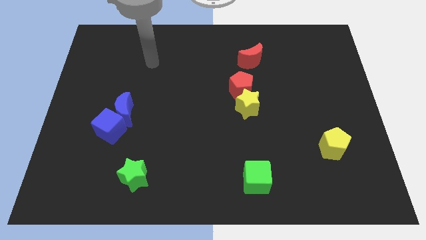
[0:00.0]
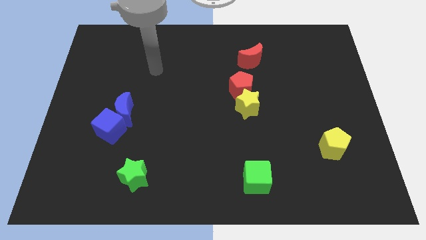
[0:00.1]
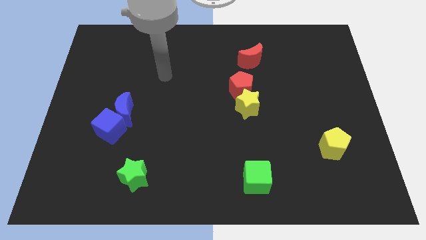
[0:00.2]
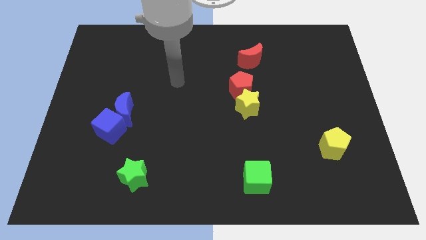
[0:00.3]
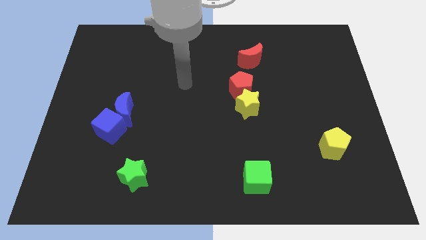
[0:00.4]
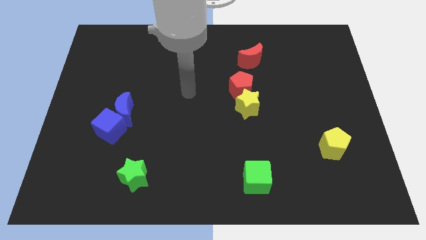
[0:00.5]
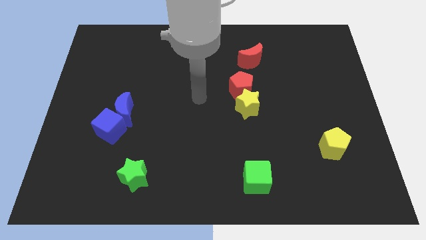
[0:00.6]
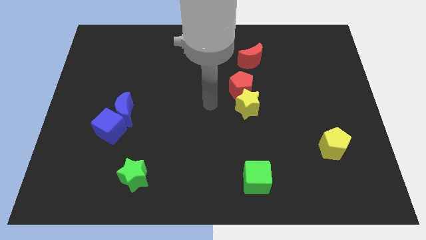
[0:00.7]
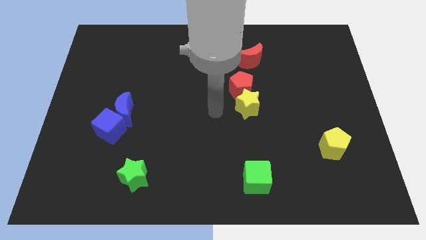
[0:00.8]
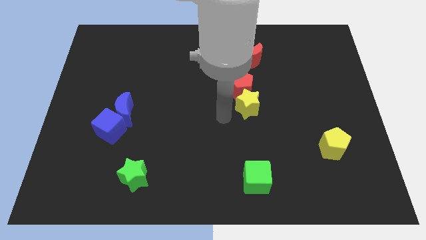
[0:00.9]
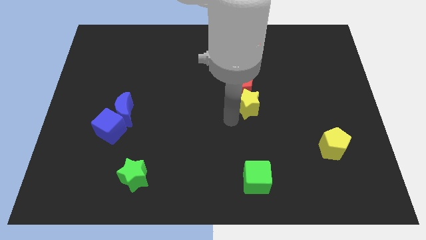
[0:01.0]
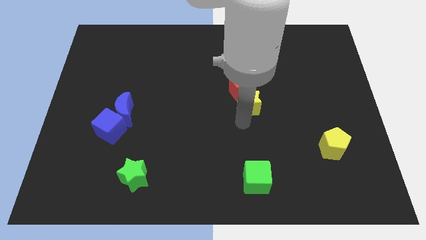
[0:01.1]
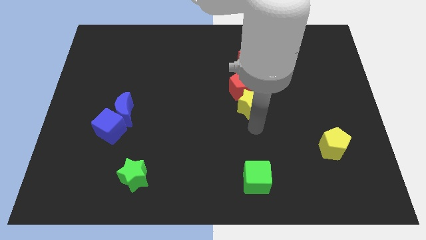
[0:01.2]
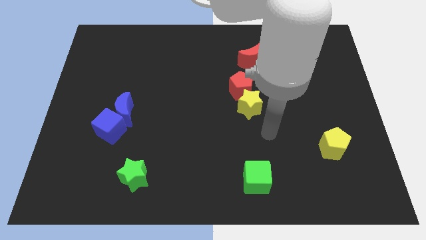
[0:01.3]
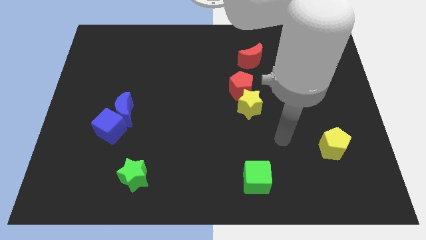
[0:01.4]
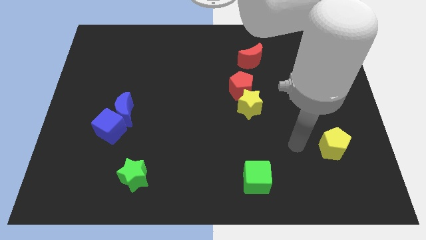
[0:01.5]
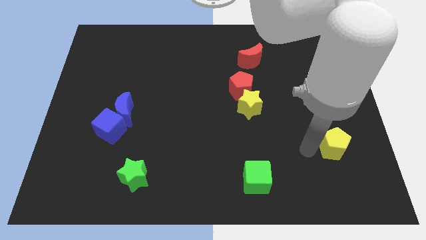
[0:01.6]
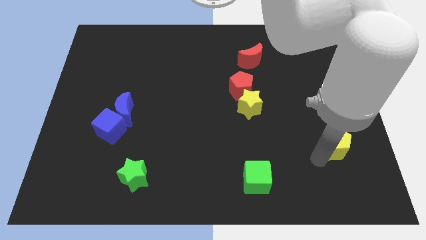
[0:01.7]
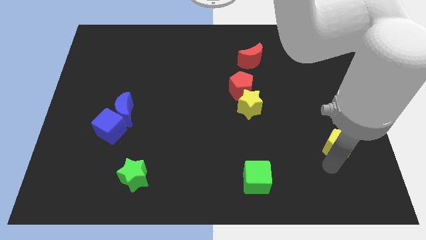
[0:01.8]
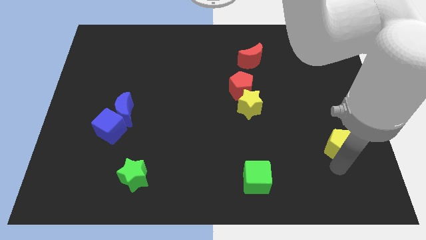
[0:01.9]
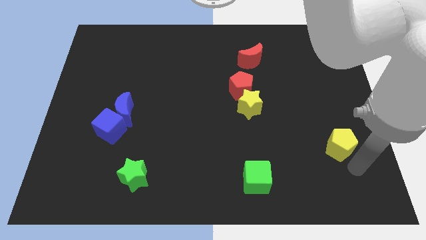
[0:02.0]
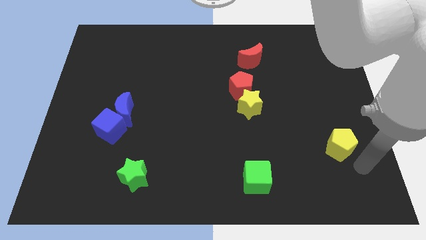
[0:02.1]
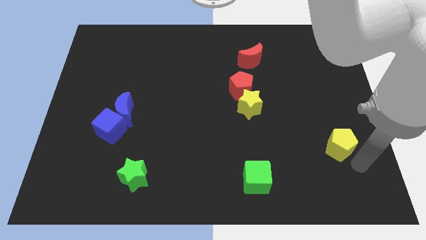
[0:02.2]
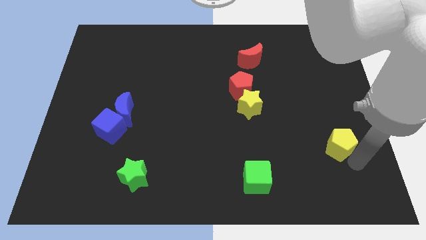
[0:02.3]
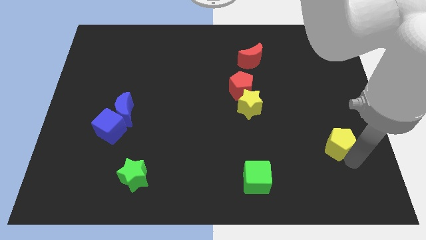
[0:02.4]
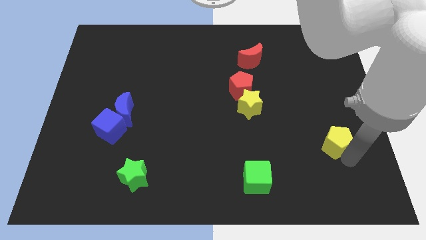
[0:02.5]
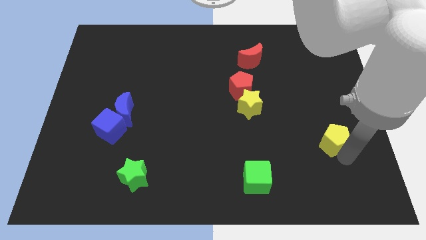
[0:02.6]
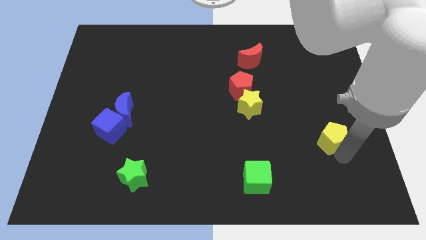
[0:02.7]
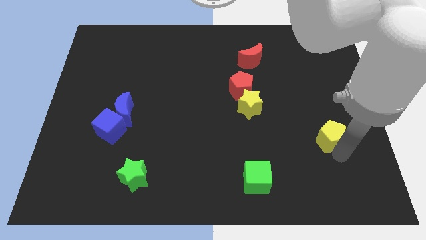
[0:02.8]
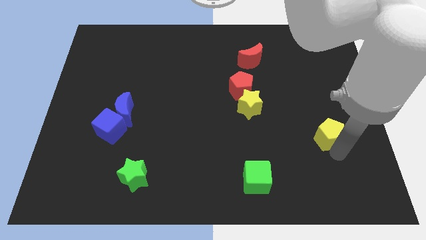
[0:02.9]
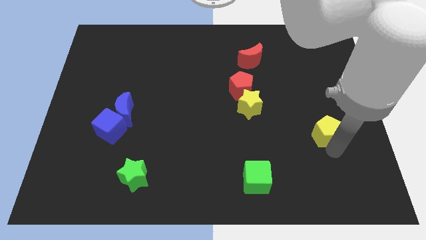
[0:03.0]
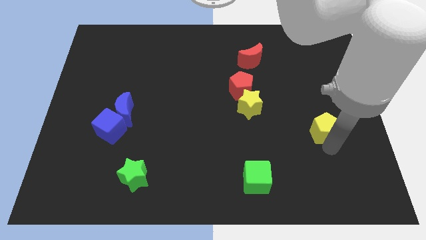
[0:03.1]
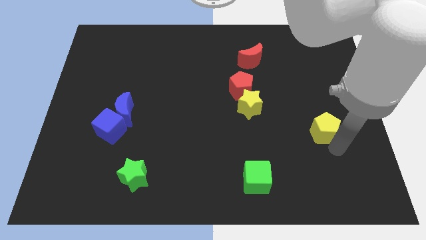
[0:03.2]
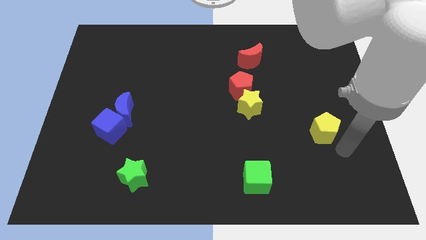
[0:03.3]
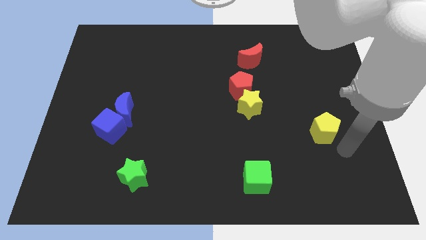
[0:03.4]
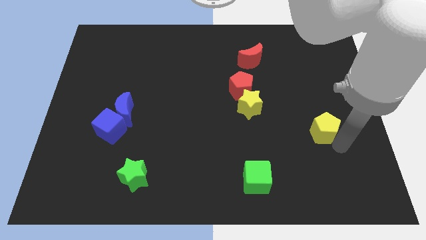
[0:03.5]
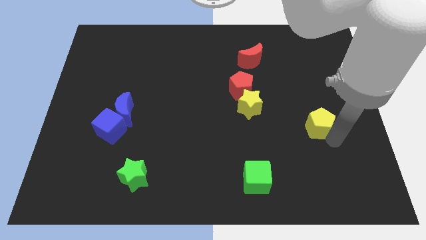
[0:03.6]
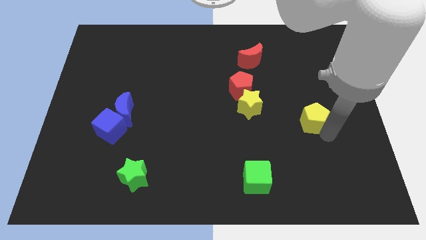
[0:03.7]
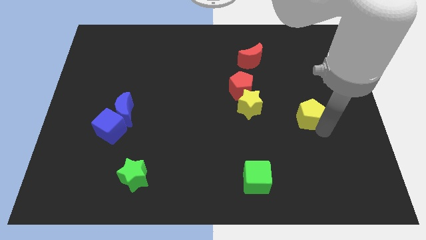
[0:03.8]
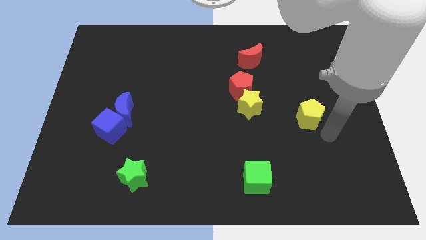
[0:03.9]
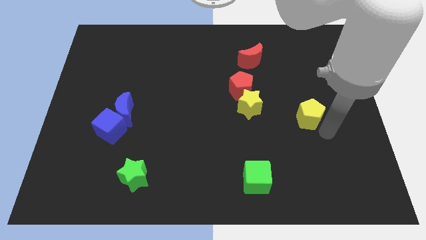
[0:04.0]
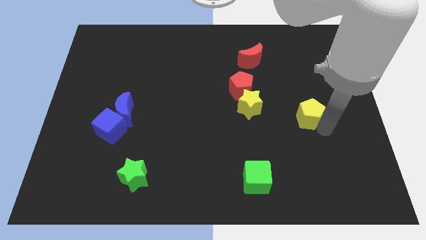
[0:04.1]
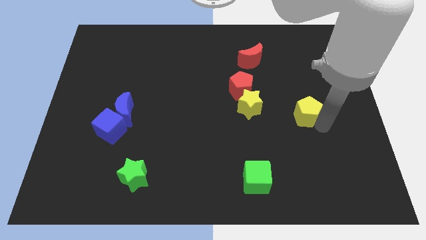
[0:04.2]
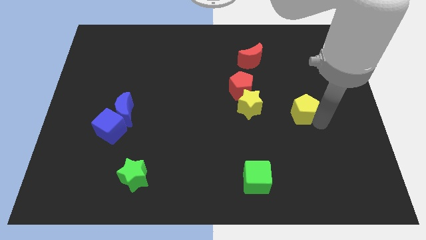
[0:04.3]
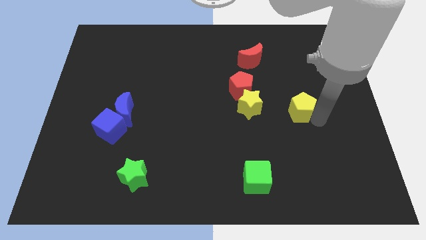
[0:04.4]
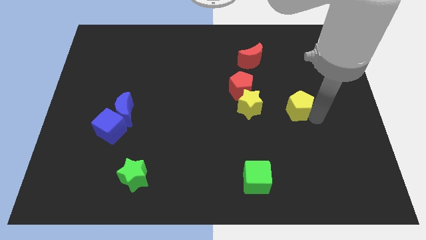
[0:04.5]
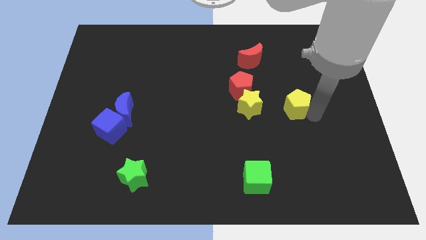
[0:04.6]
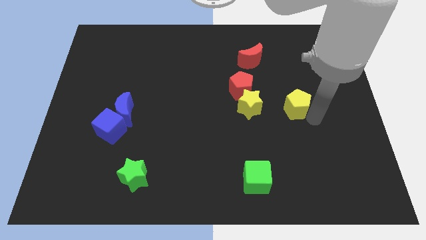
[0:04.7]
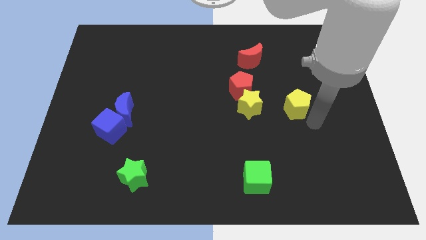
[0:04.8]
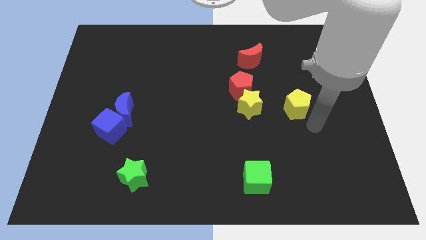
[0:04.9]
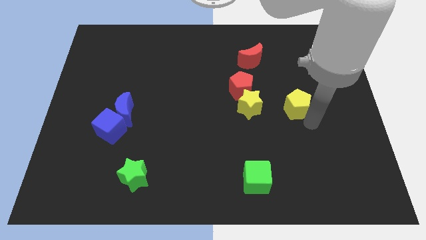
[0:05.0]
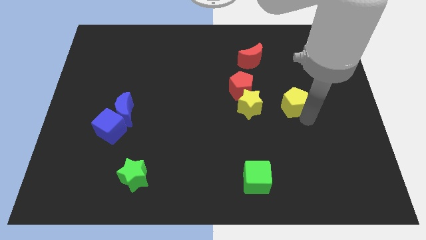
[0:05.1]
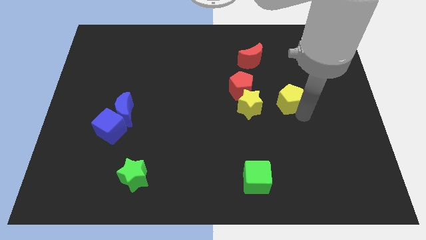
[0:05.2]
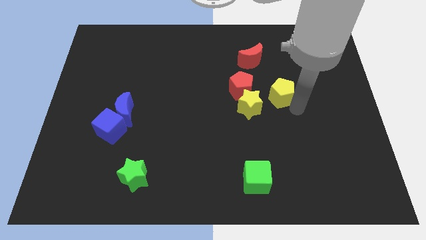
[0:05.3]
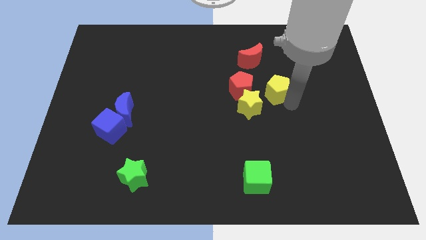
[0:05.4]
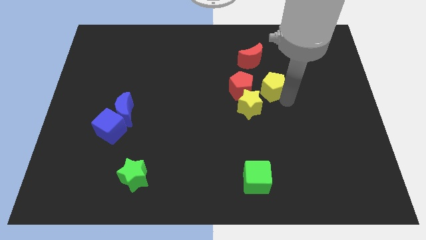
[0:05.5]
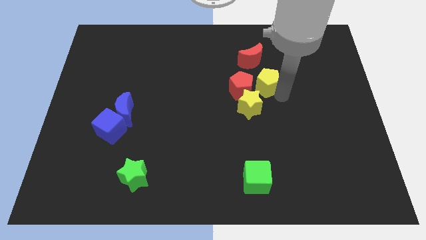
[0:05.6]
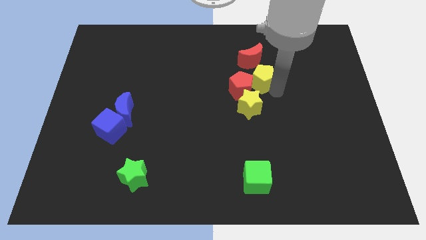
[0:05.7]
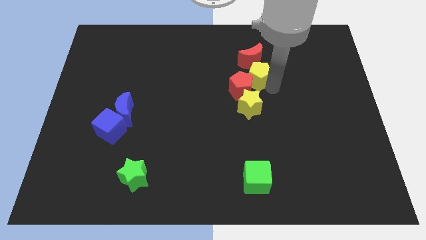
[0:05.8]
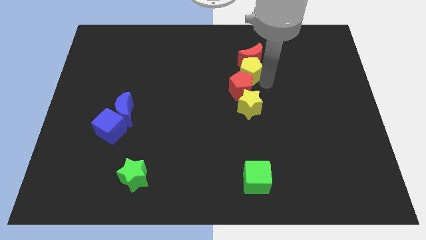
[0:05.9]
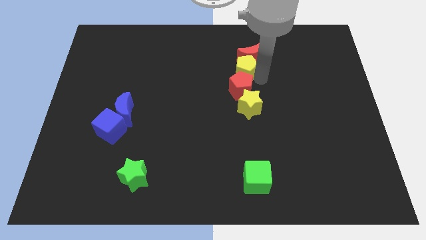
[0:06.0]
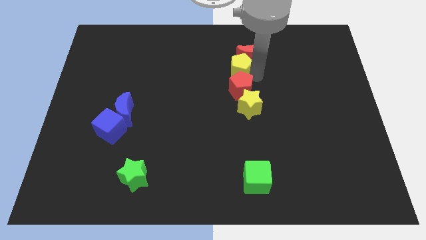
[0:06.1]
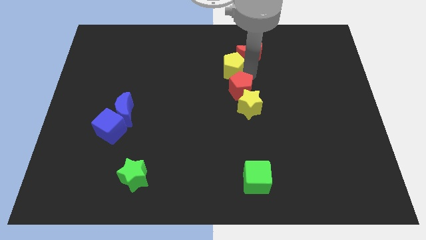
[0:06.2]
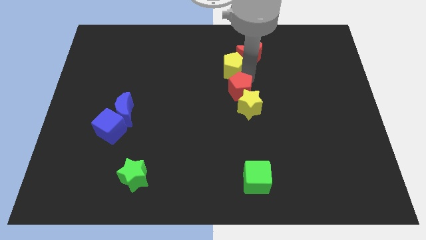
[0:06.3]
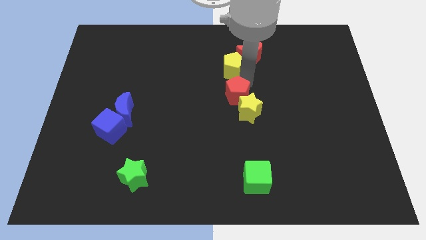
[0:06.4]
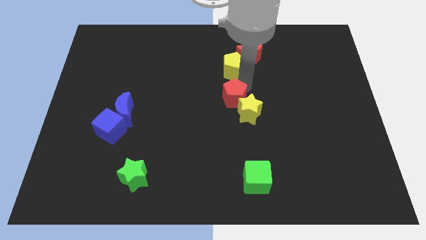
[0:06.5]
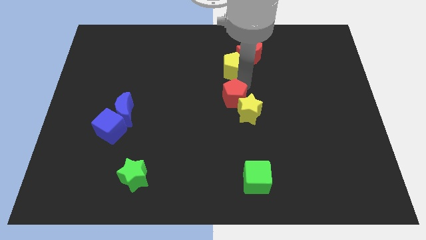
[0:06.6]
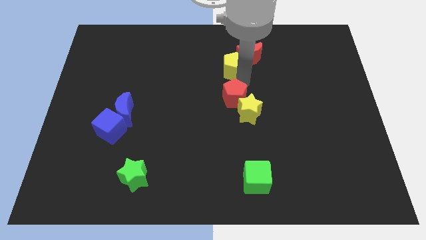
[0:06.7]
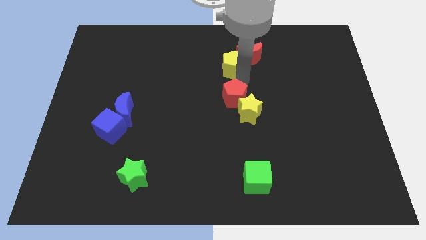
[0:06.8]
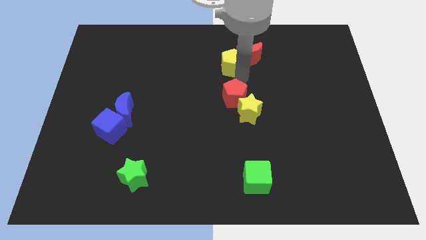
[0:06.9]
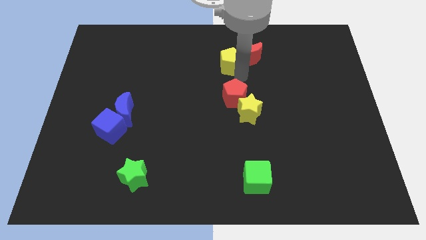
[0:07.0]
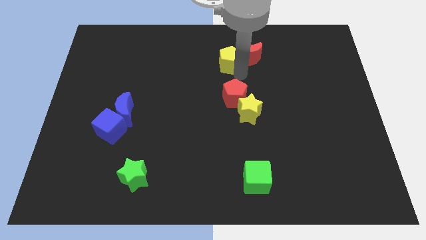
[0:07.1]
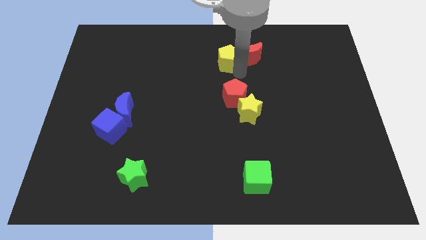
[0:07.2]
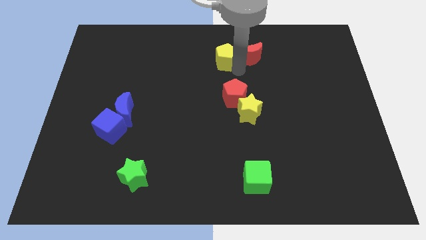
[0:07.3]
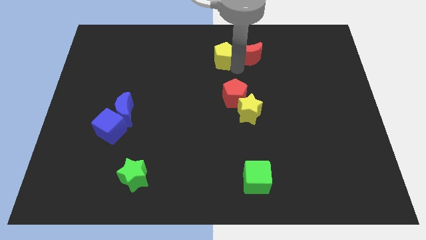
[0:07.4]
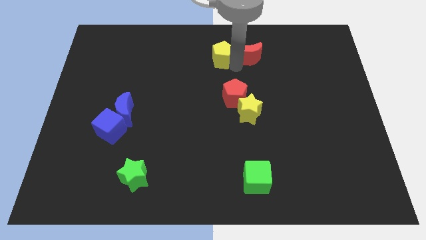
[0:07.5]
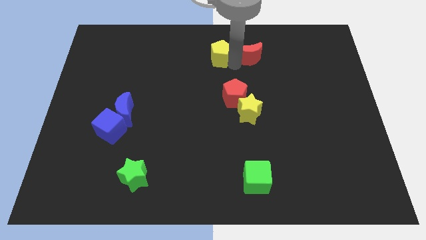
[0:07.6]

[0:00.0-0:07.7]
move the yellow pentagon to the top
